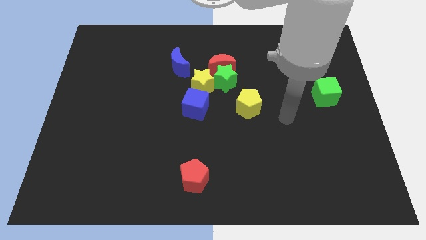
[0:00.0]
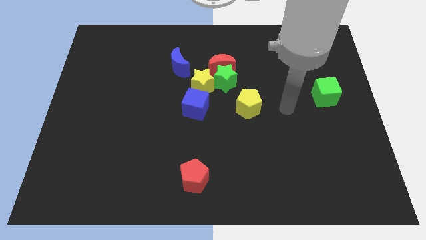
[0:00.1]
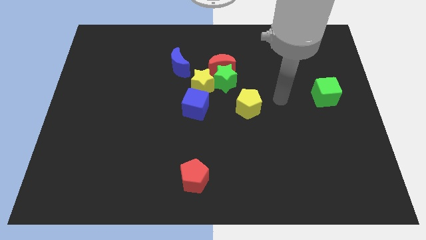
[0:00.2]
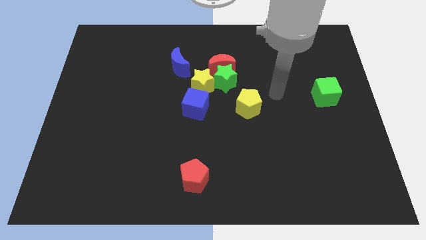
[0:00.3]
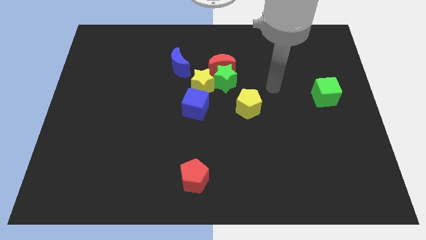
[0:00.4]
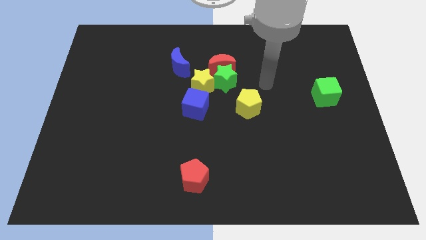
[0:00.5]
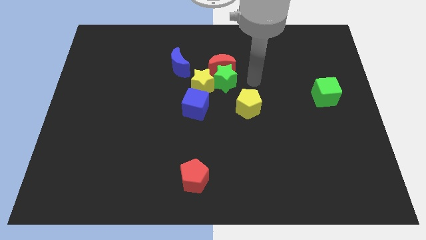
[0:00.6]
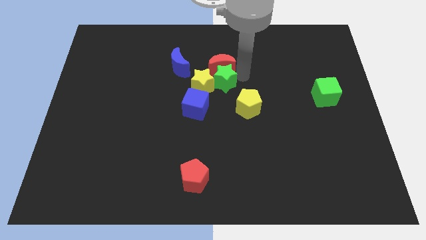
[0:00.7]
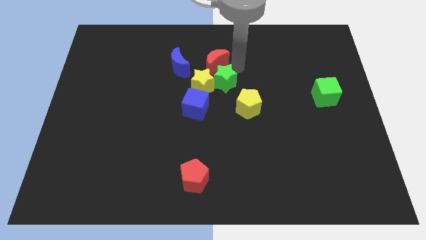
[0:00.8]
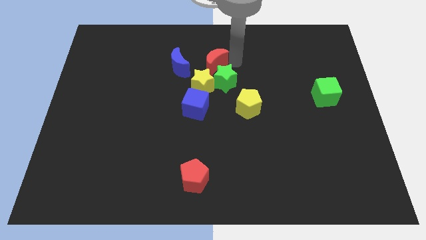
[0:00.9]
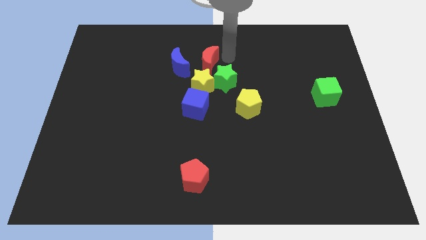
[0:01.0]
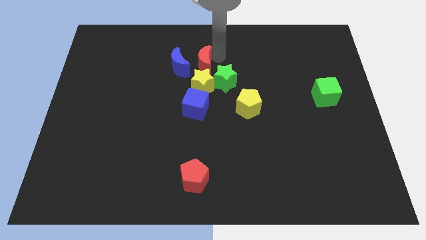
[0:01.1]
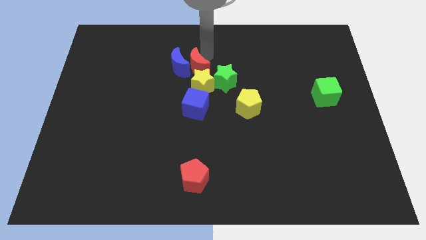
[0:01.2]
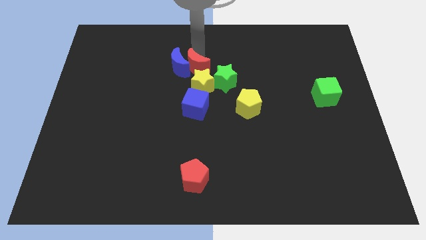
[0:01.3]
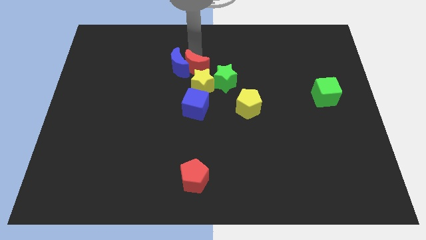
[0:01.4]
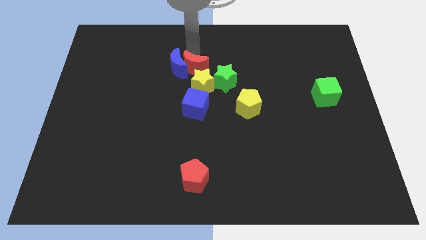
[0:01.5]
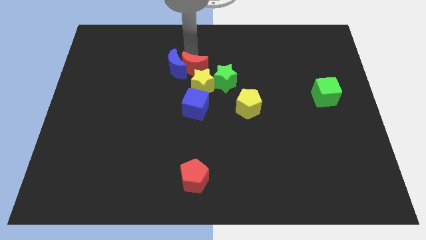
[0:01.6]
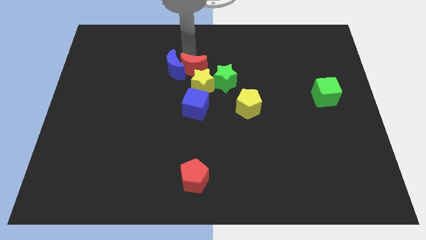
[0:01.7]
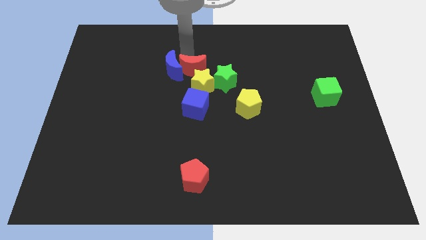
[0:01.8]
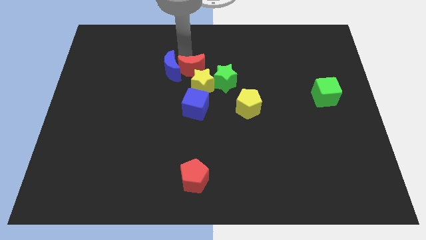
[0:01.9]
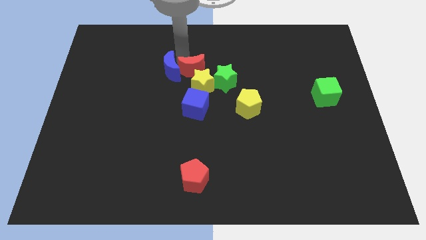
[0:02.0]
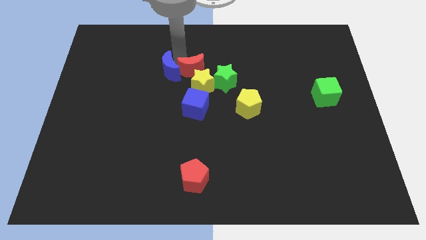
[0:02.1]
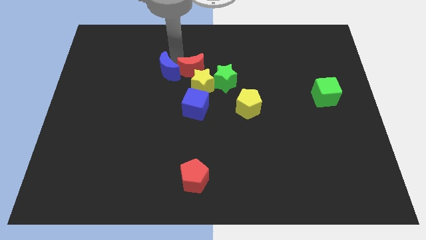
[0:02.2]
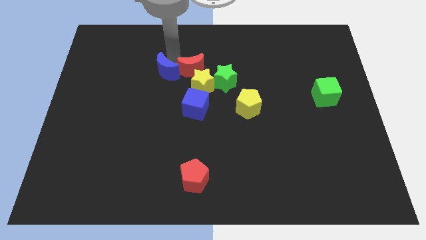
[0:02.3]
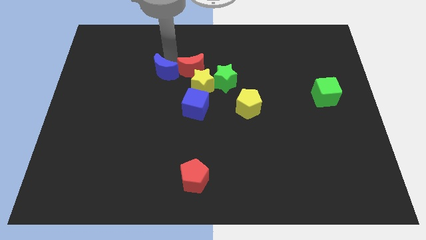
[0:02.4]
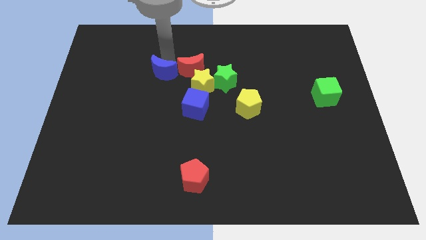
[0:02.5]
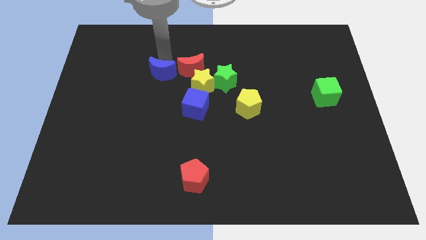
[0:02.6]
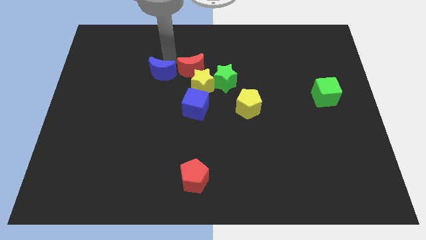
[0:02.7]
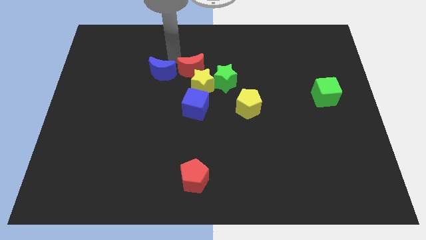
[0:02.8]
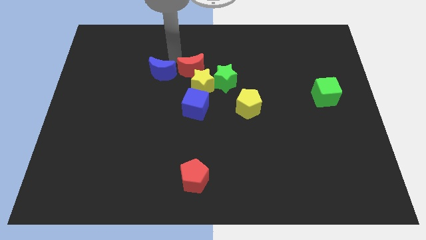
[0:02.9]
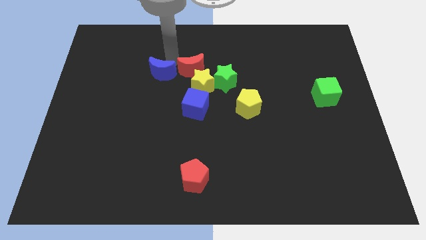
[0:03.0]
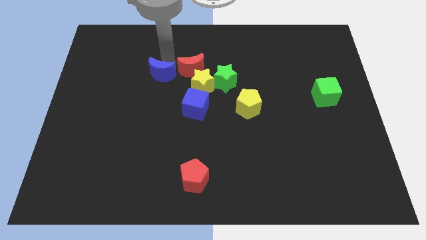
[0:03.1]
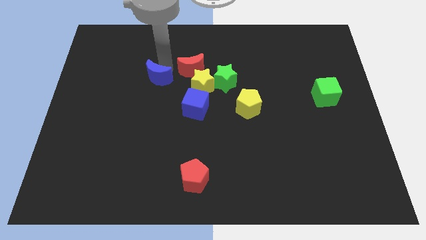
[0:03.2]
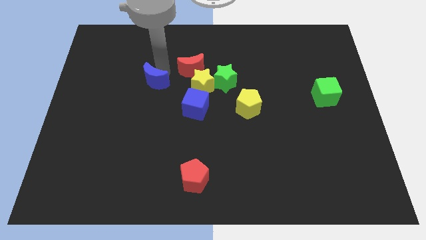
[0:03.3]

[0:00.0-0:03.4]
slide the blue moon slightly diagonally downwards and to the left

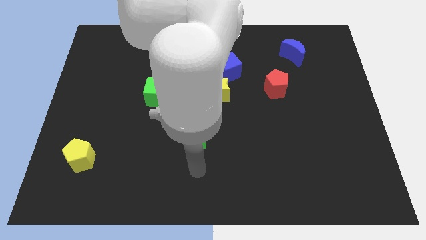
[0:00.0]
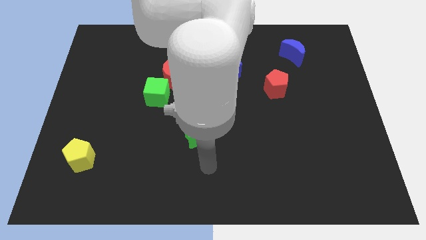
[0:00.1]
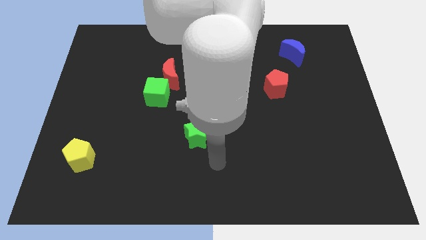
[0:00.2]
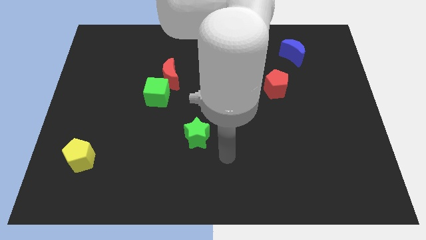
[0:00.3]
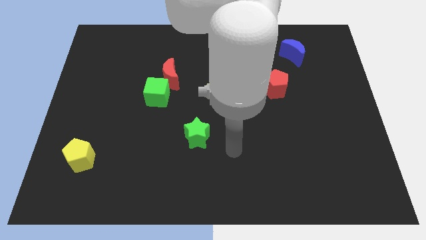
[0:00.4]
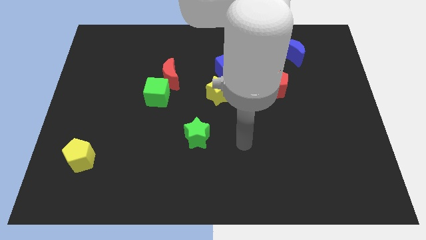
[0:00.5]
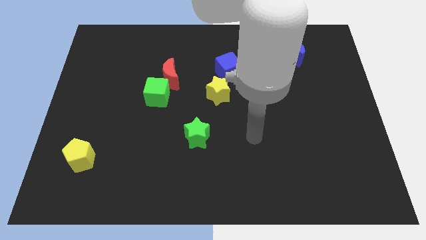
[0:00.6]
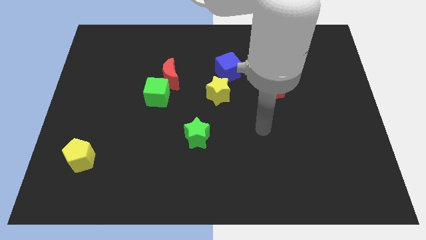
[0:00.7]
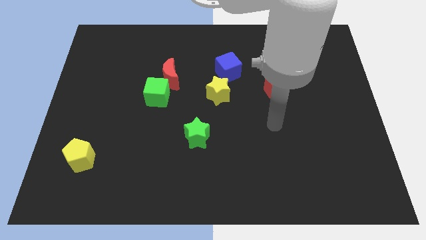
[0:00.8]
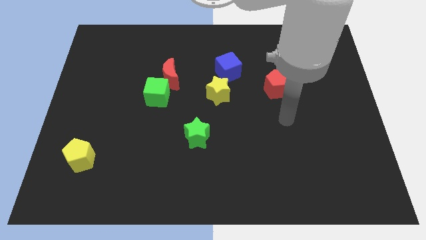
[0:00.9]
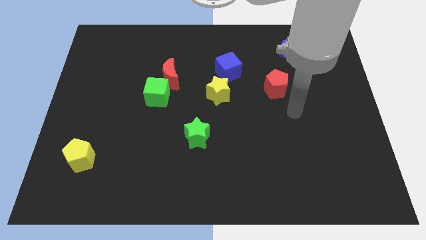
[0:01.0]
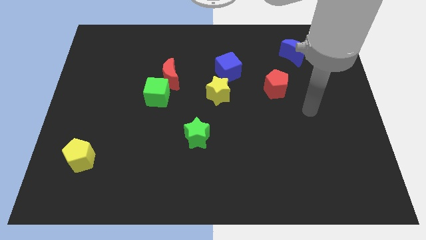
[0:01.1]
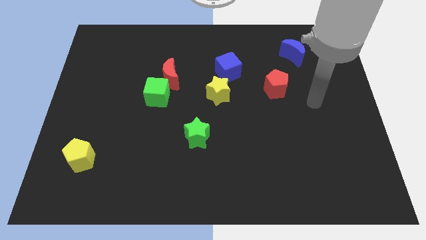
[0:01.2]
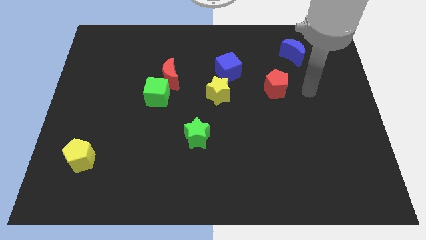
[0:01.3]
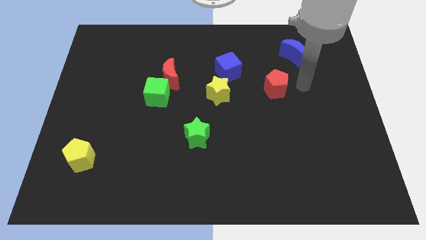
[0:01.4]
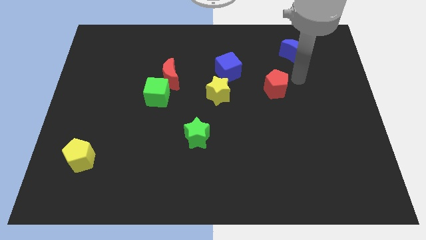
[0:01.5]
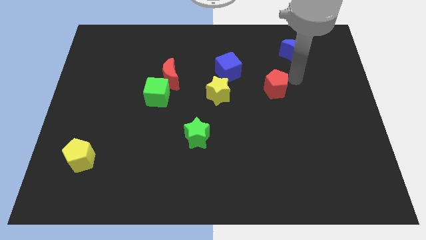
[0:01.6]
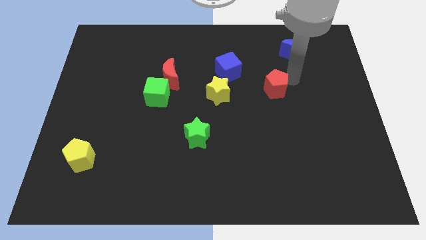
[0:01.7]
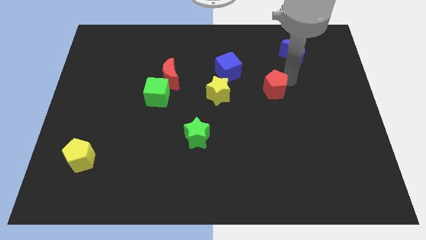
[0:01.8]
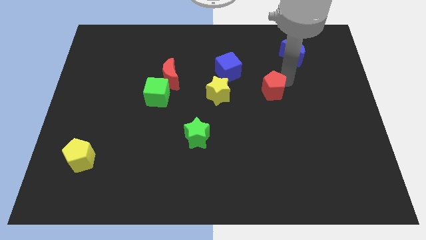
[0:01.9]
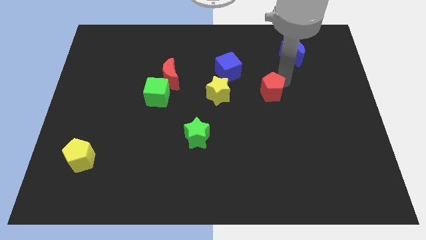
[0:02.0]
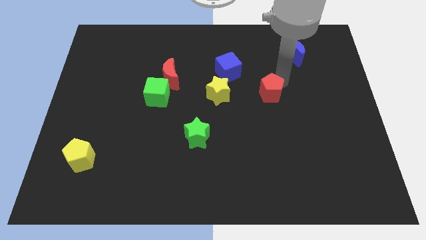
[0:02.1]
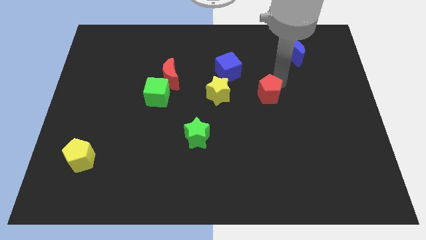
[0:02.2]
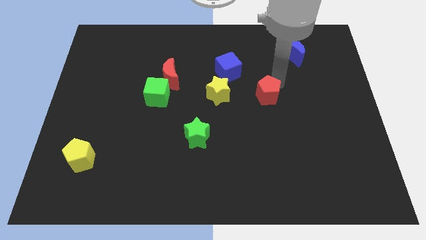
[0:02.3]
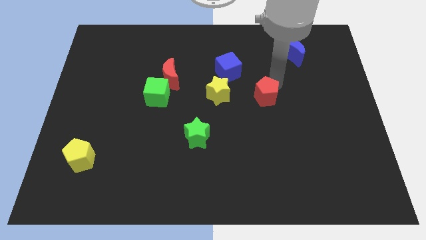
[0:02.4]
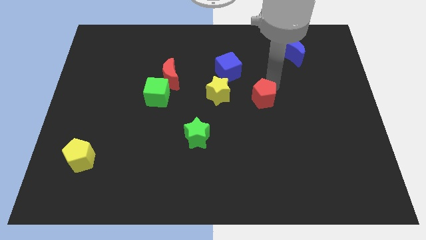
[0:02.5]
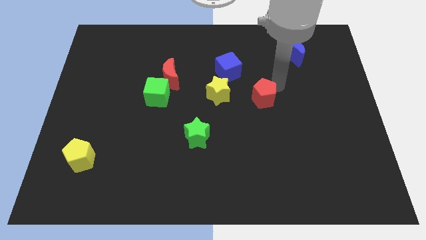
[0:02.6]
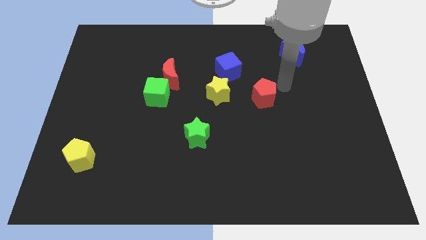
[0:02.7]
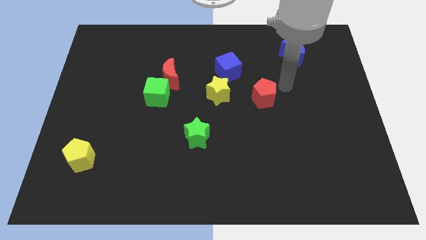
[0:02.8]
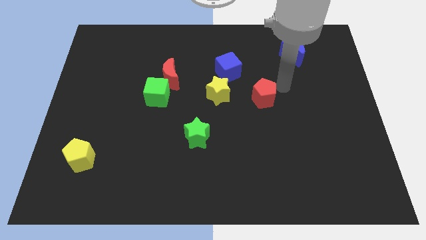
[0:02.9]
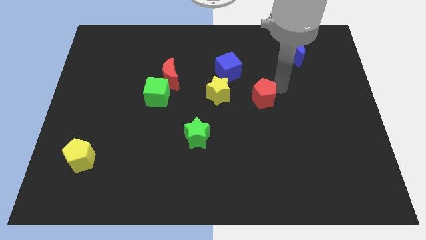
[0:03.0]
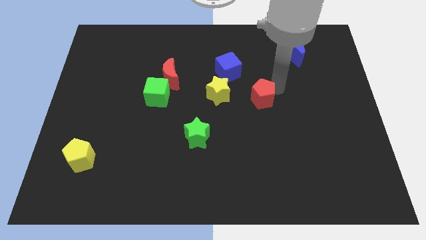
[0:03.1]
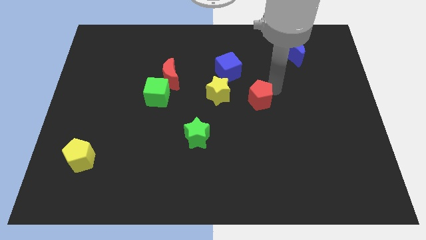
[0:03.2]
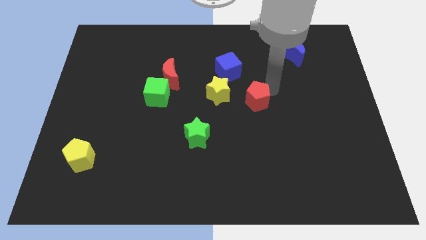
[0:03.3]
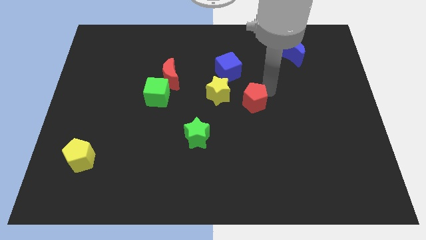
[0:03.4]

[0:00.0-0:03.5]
move the red pentagon down and to the left diagonally a bit

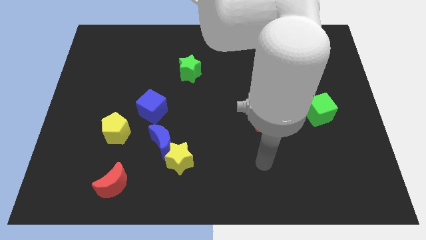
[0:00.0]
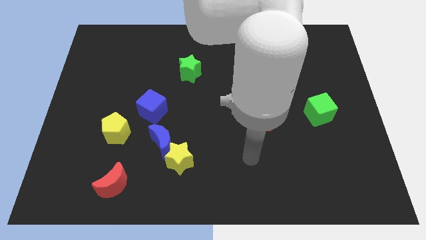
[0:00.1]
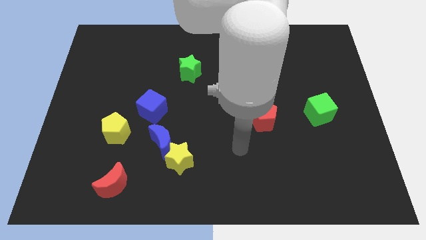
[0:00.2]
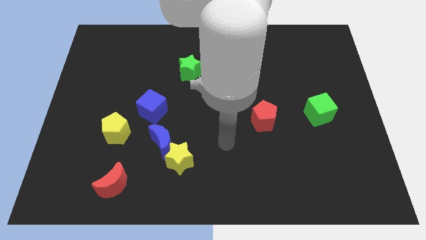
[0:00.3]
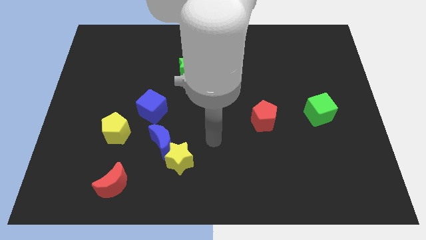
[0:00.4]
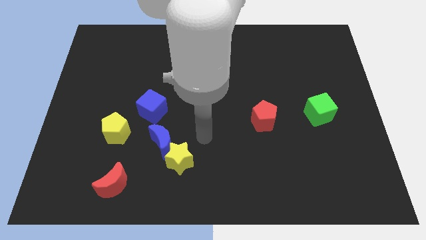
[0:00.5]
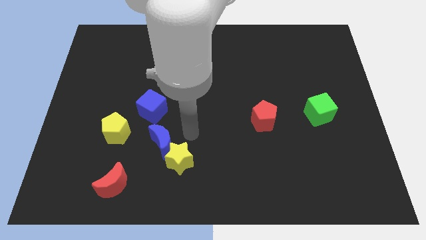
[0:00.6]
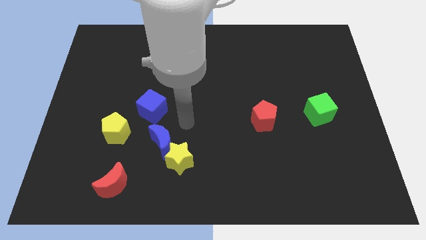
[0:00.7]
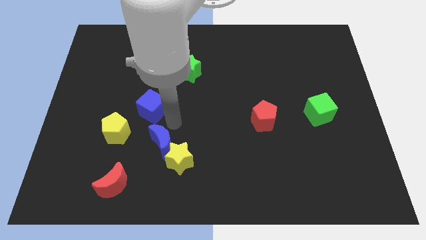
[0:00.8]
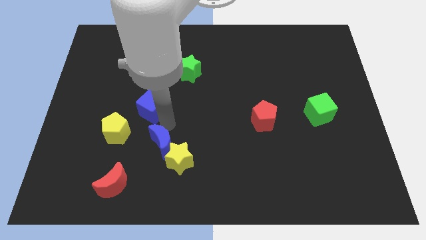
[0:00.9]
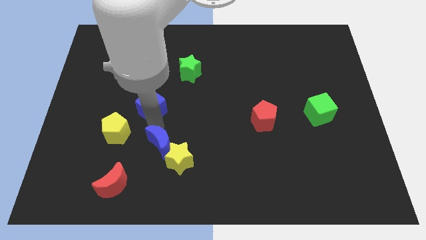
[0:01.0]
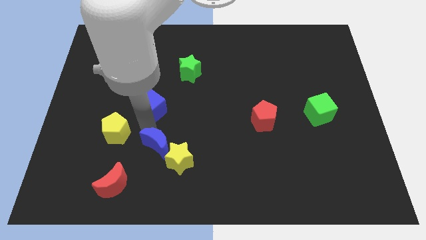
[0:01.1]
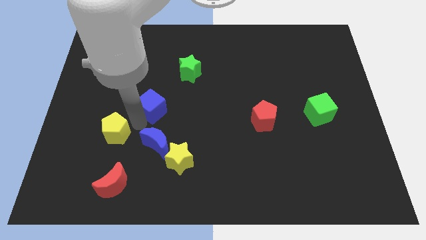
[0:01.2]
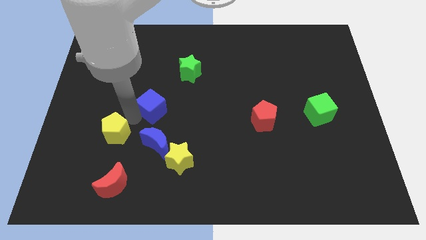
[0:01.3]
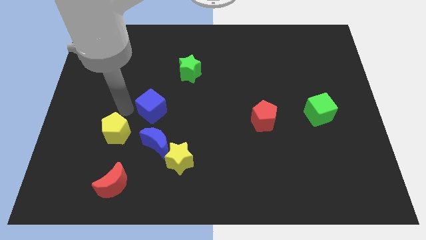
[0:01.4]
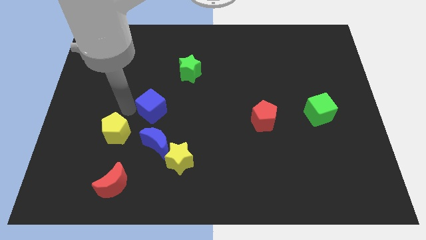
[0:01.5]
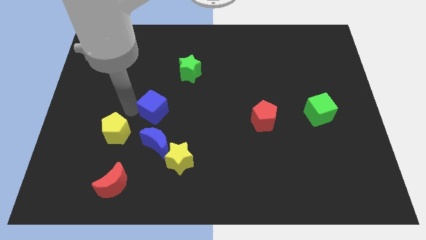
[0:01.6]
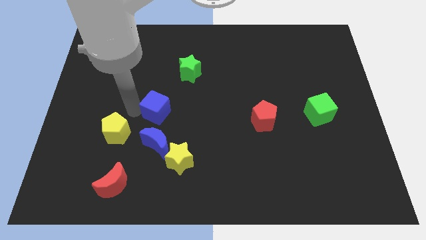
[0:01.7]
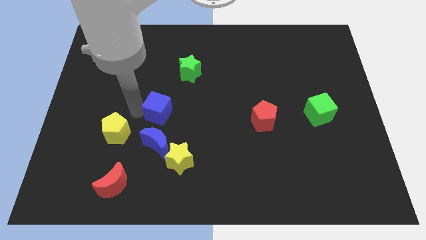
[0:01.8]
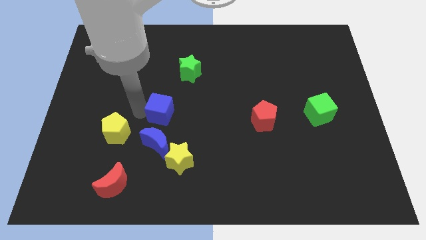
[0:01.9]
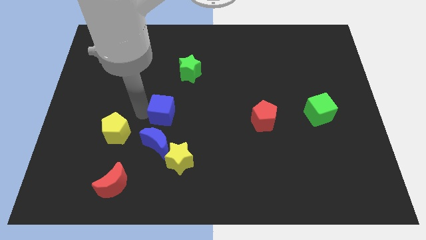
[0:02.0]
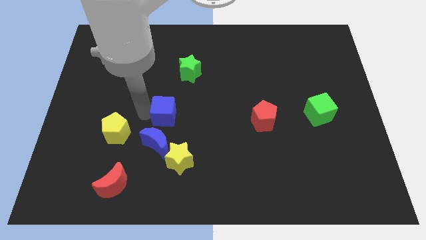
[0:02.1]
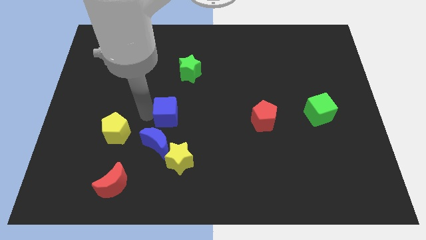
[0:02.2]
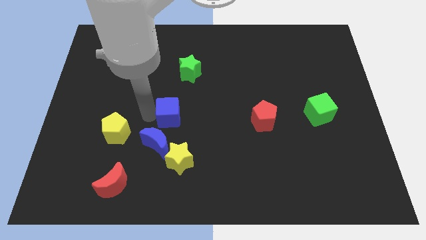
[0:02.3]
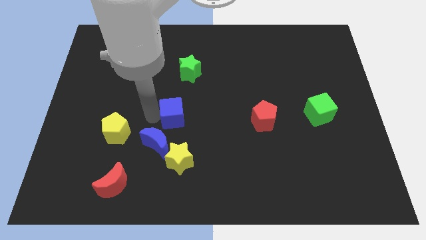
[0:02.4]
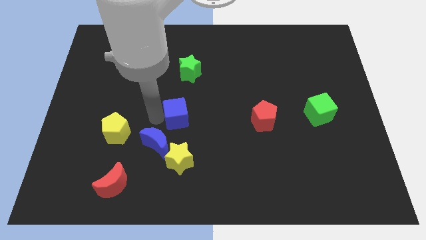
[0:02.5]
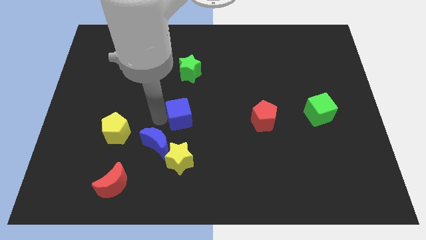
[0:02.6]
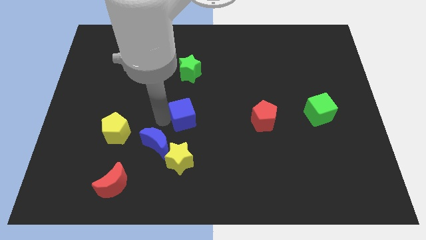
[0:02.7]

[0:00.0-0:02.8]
push the blue cube to the right slightly
